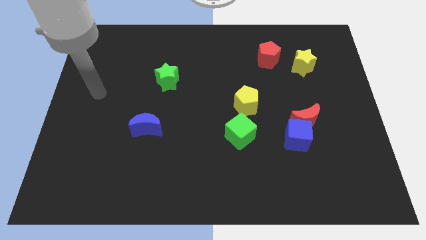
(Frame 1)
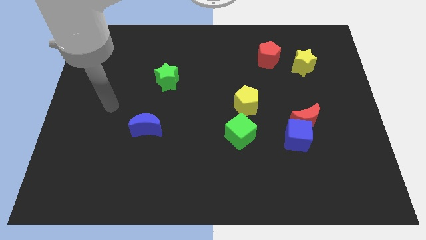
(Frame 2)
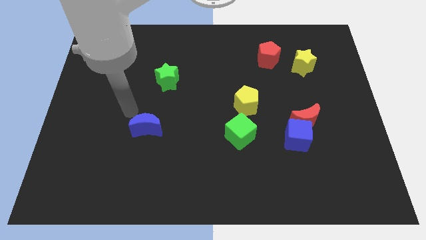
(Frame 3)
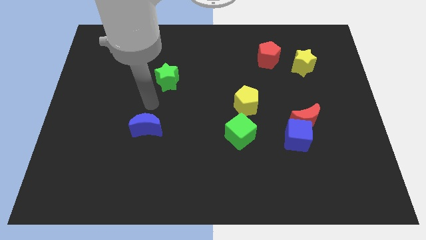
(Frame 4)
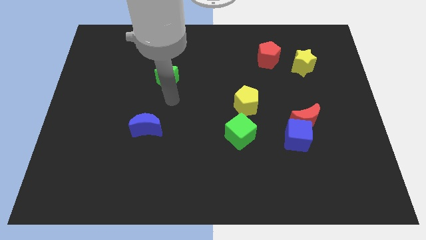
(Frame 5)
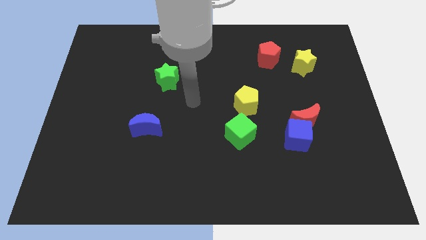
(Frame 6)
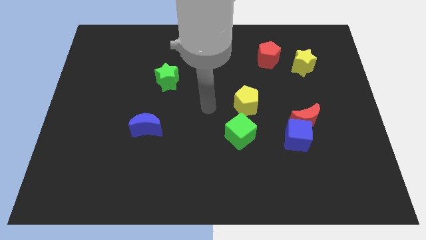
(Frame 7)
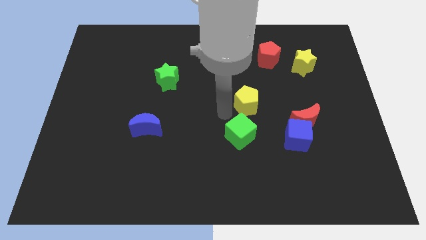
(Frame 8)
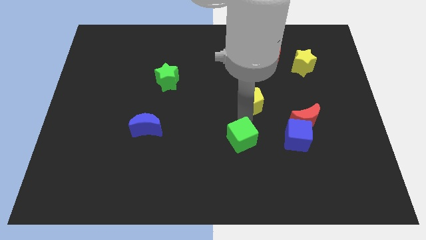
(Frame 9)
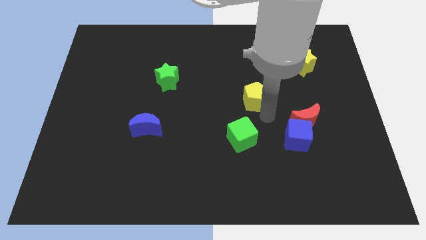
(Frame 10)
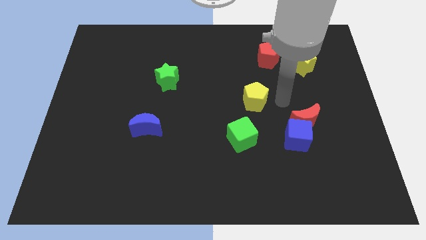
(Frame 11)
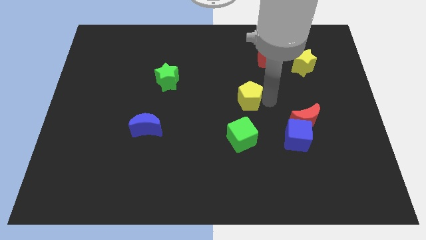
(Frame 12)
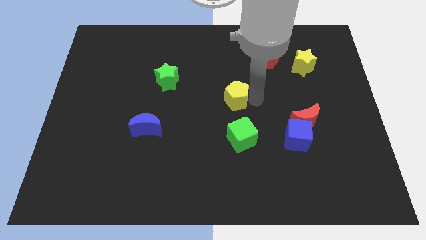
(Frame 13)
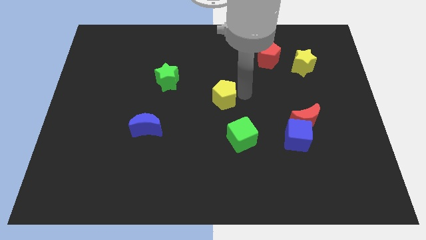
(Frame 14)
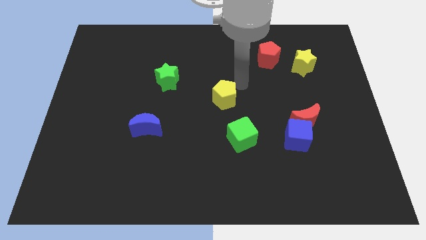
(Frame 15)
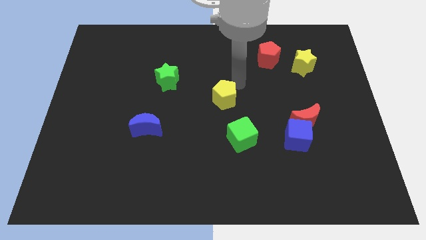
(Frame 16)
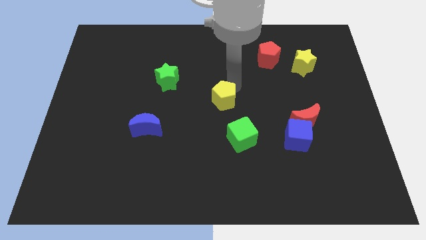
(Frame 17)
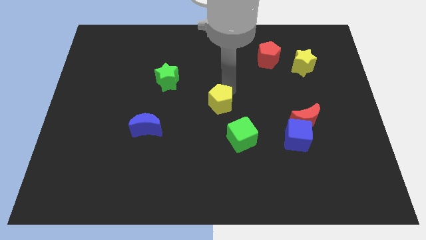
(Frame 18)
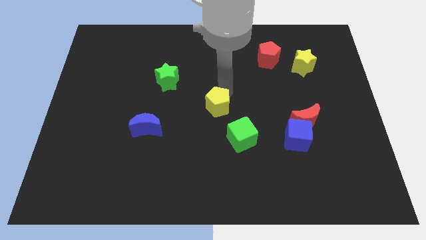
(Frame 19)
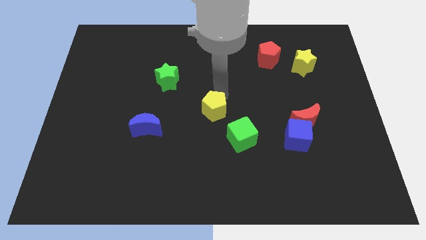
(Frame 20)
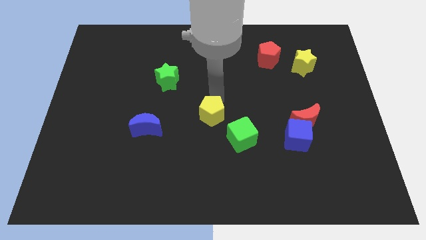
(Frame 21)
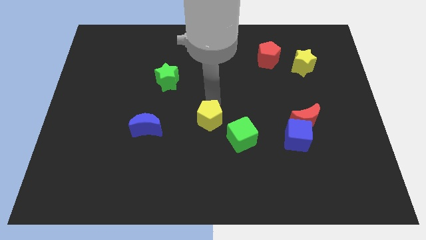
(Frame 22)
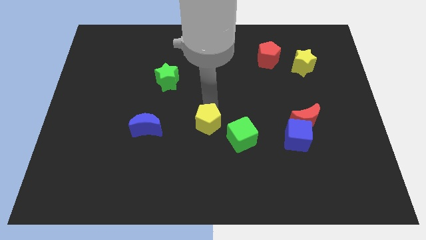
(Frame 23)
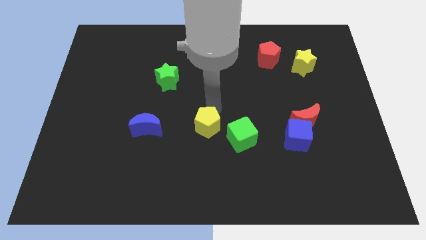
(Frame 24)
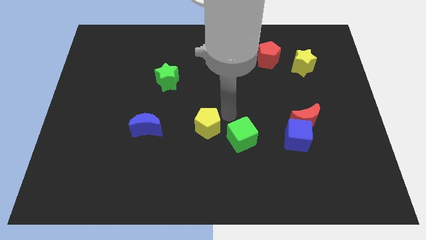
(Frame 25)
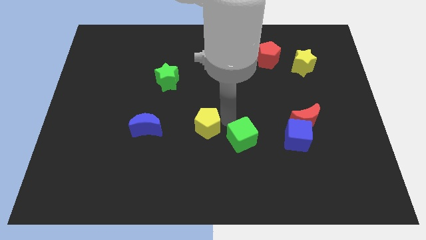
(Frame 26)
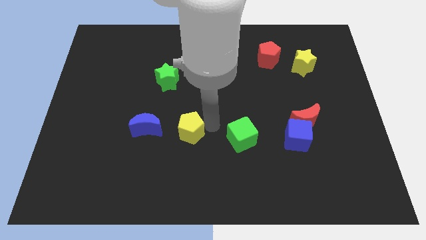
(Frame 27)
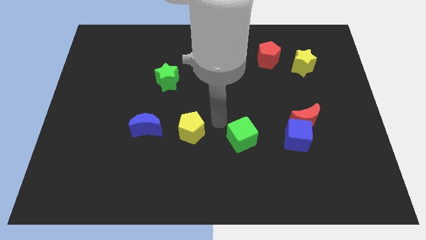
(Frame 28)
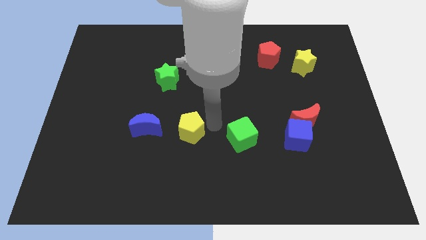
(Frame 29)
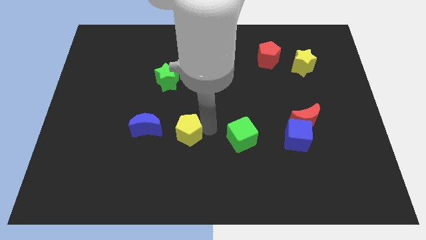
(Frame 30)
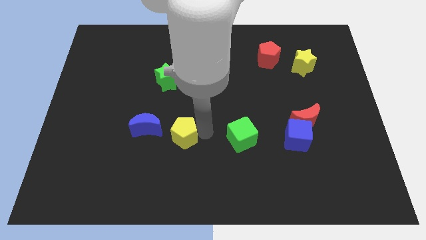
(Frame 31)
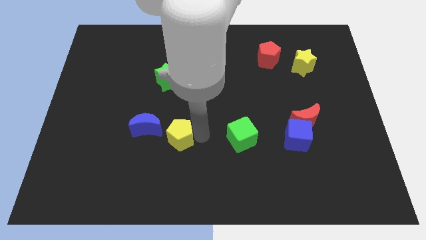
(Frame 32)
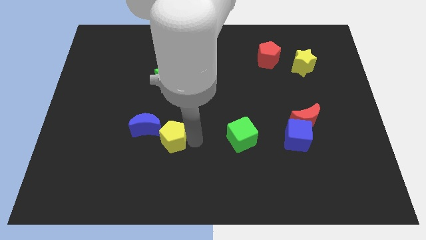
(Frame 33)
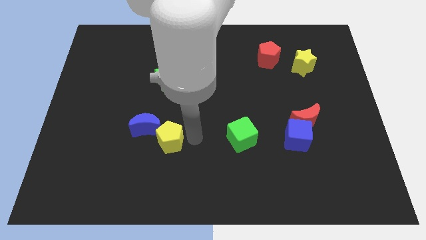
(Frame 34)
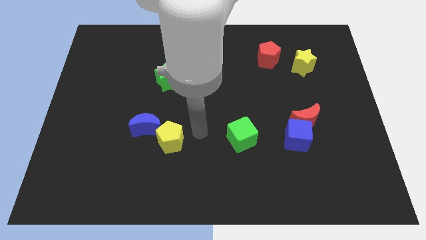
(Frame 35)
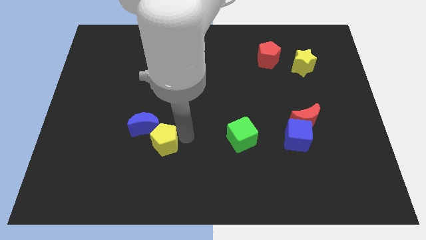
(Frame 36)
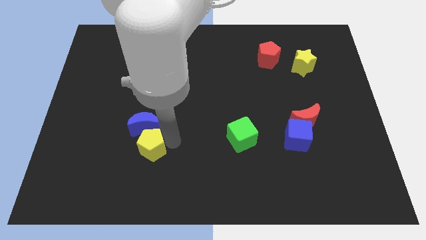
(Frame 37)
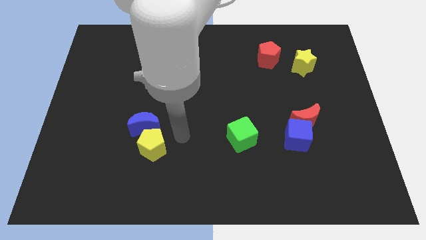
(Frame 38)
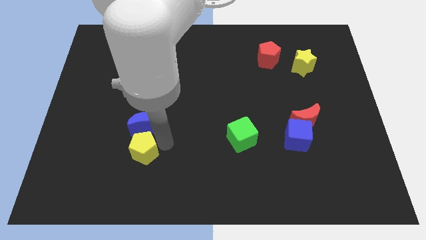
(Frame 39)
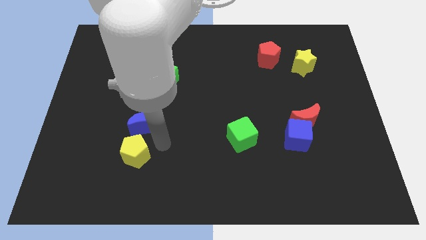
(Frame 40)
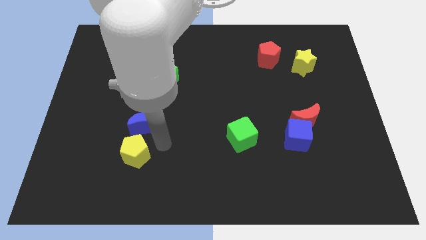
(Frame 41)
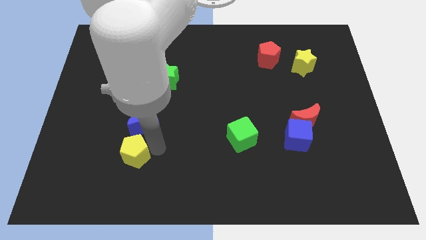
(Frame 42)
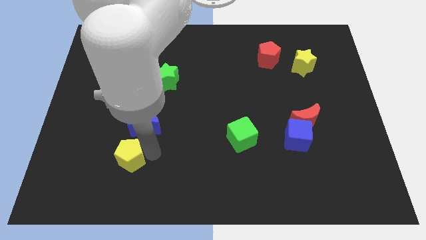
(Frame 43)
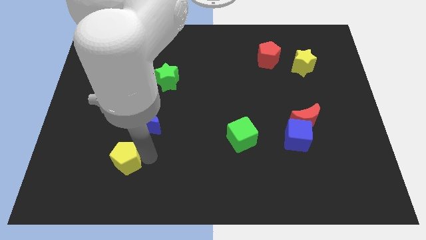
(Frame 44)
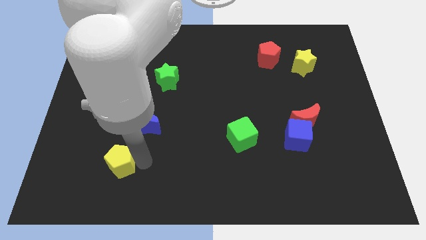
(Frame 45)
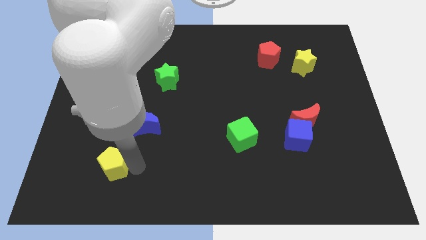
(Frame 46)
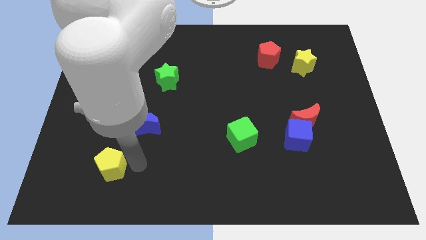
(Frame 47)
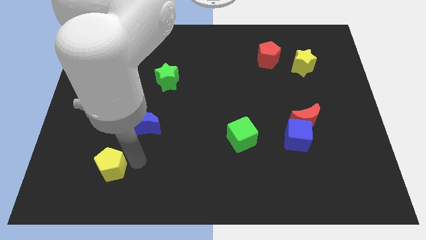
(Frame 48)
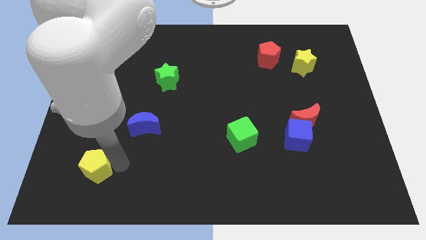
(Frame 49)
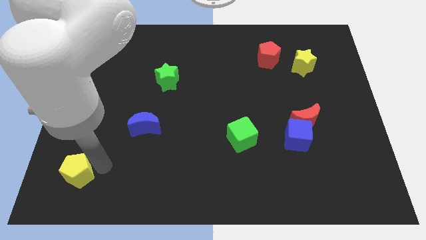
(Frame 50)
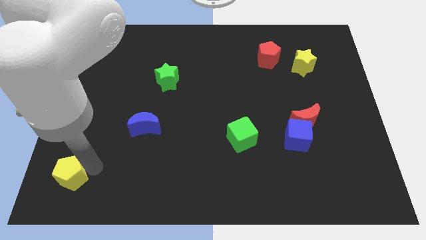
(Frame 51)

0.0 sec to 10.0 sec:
slide the yellow pentagon to the bottom left

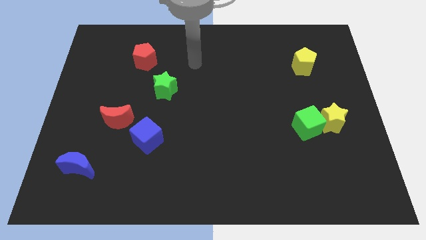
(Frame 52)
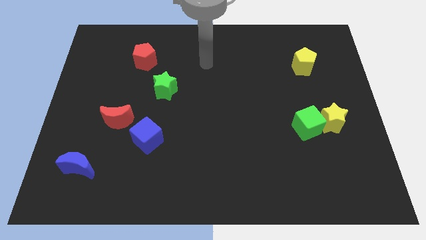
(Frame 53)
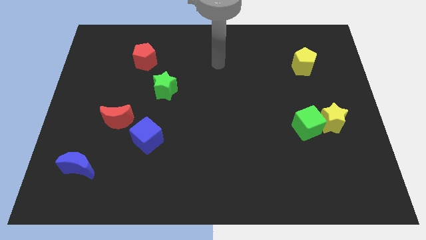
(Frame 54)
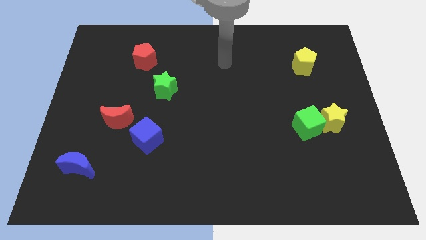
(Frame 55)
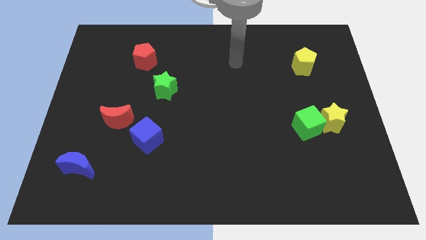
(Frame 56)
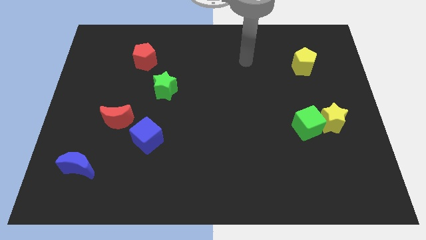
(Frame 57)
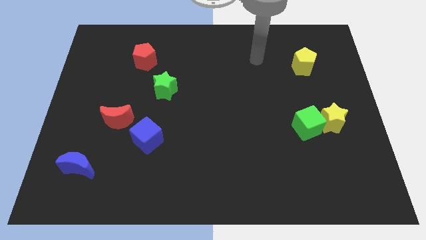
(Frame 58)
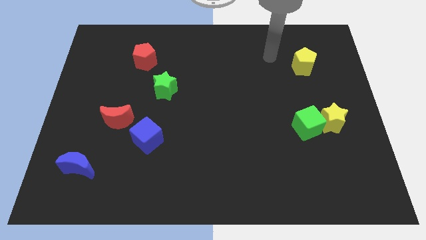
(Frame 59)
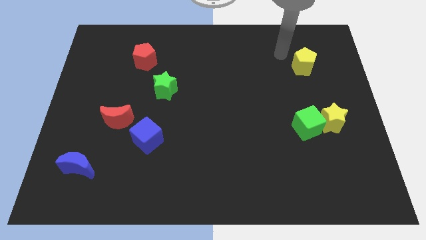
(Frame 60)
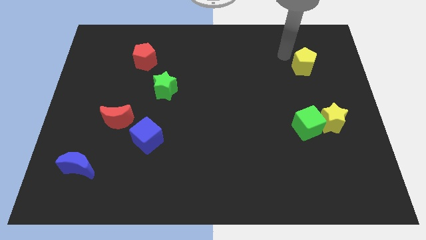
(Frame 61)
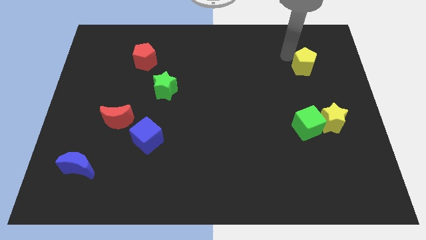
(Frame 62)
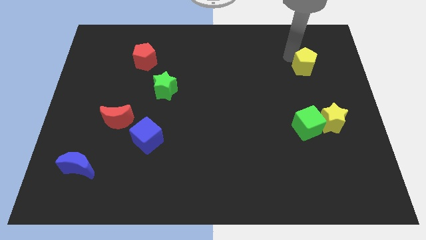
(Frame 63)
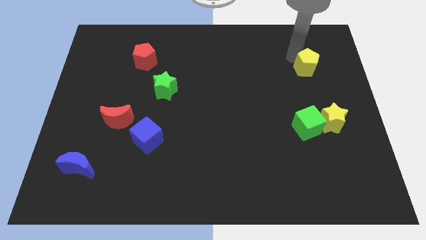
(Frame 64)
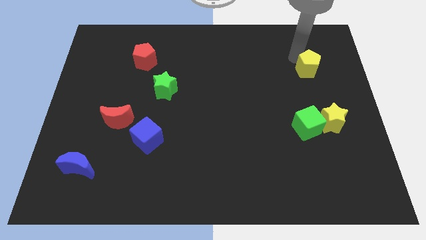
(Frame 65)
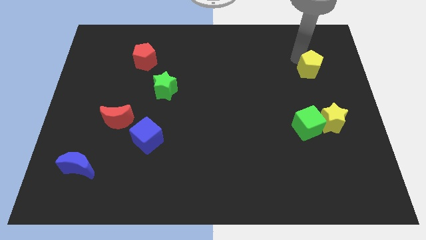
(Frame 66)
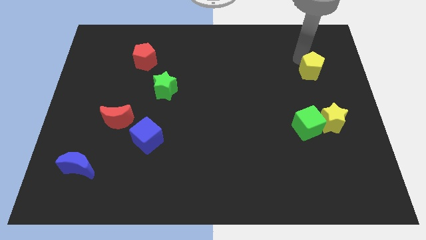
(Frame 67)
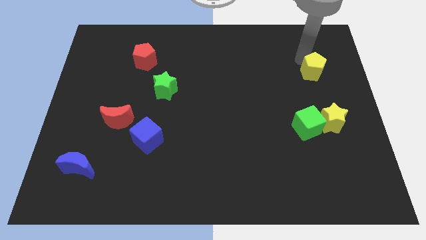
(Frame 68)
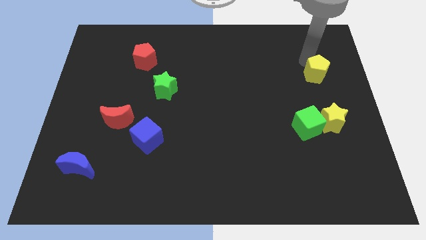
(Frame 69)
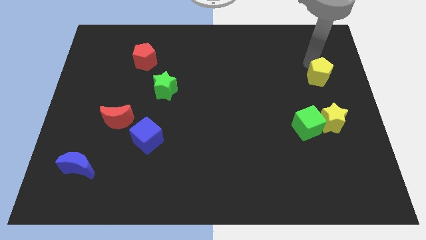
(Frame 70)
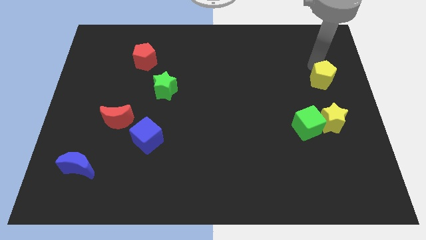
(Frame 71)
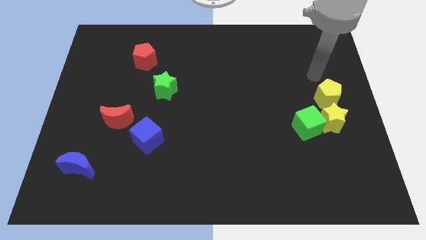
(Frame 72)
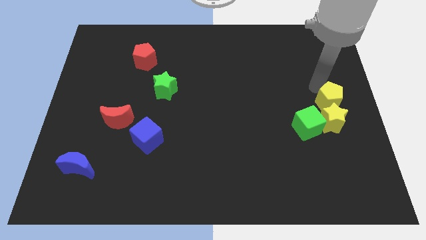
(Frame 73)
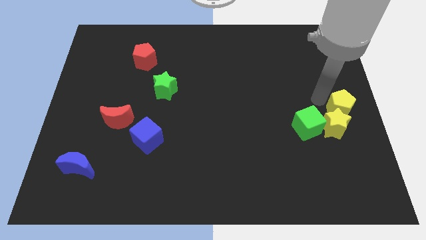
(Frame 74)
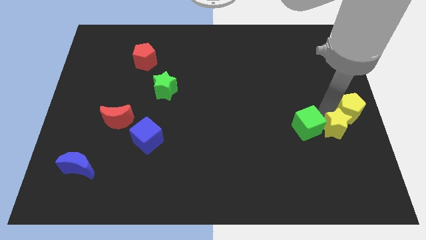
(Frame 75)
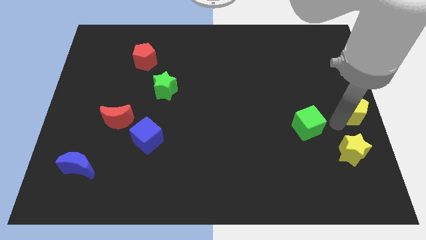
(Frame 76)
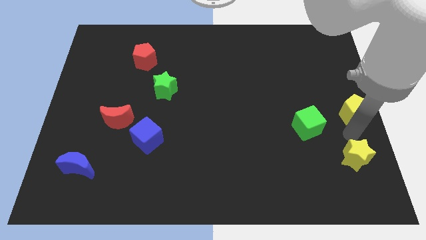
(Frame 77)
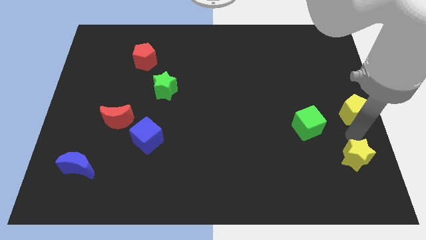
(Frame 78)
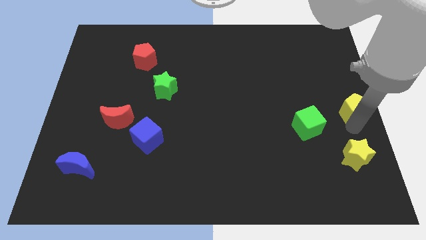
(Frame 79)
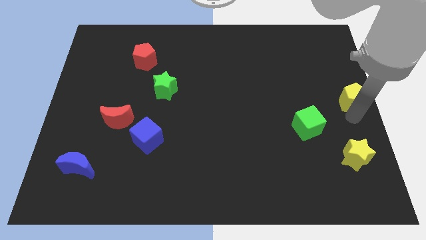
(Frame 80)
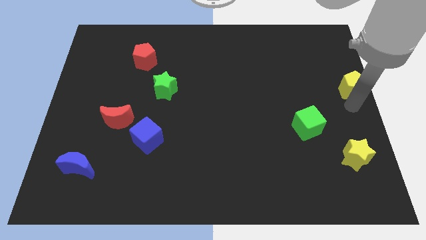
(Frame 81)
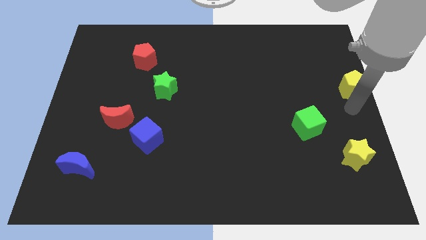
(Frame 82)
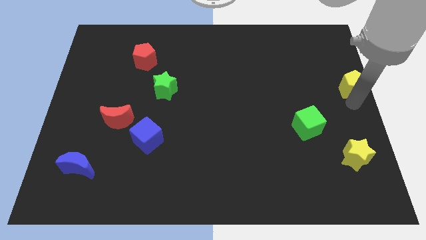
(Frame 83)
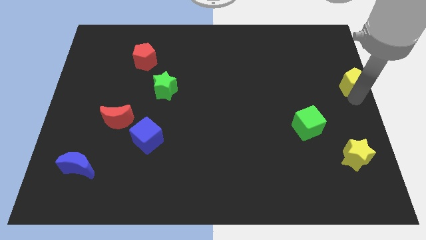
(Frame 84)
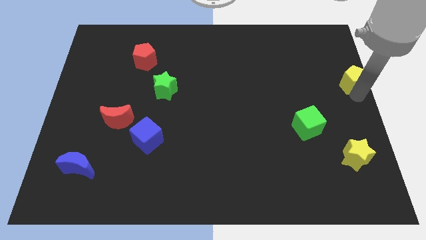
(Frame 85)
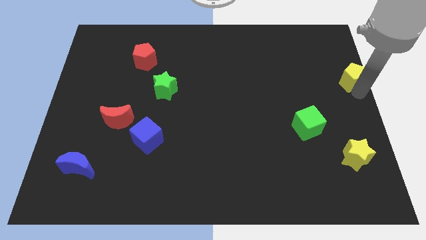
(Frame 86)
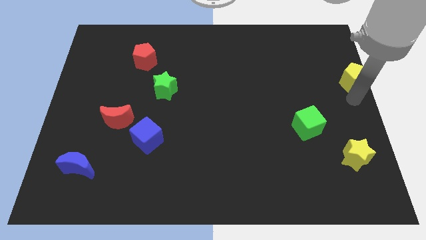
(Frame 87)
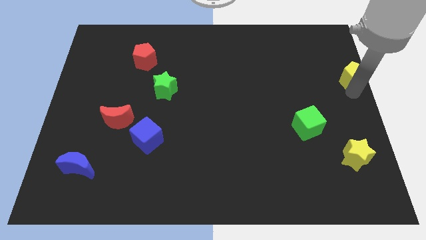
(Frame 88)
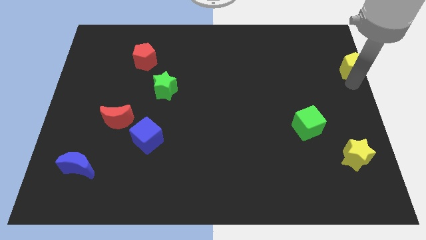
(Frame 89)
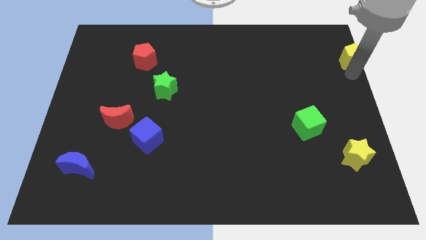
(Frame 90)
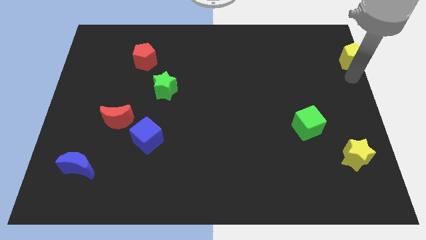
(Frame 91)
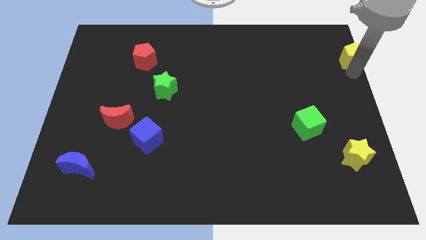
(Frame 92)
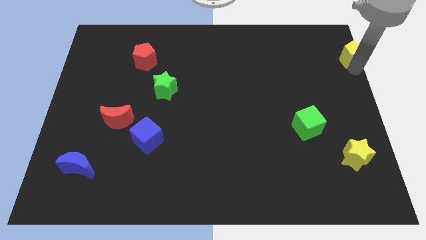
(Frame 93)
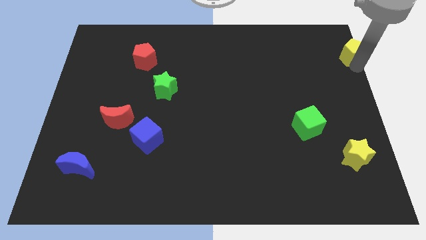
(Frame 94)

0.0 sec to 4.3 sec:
slide the yellow pentagon to the upper right corner
